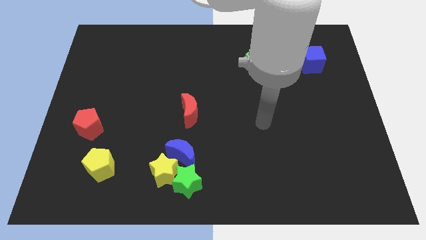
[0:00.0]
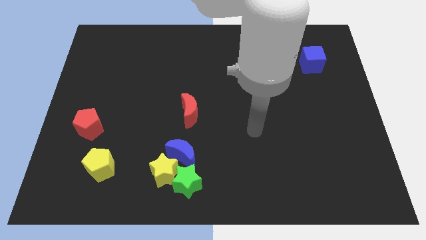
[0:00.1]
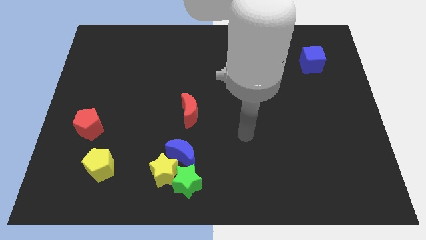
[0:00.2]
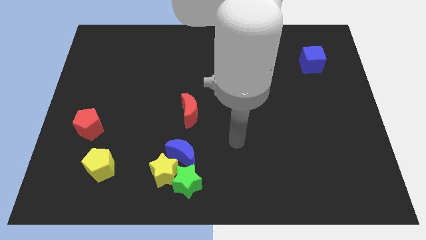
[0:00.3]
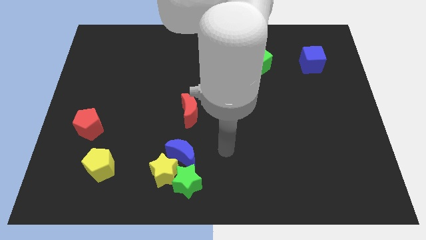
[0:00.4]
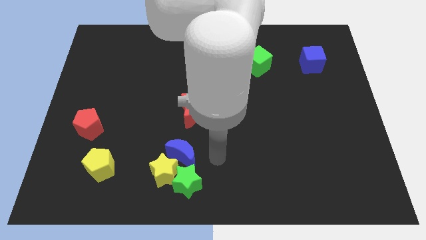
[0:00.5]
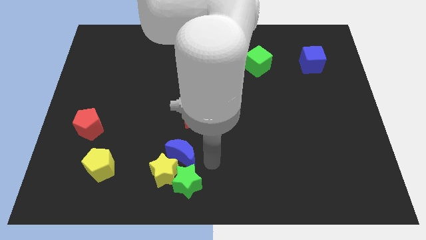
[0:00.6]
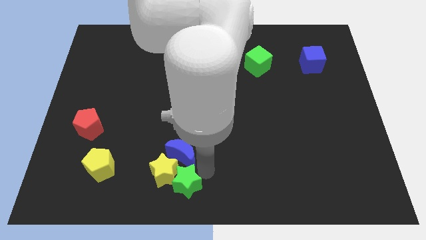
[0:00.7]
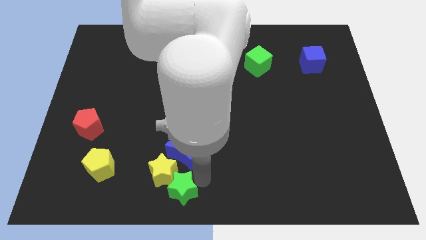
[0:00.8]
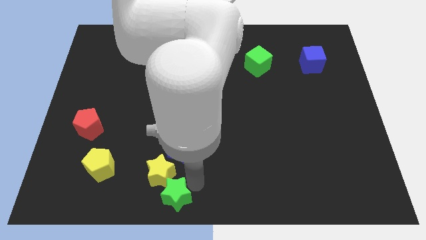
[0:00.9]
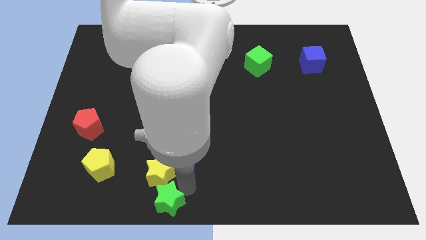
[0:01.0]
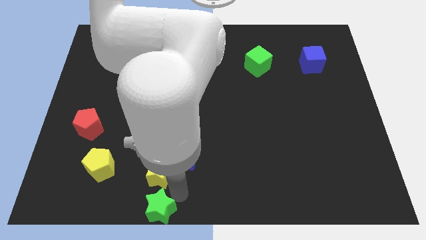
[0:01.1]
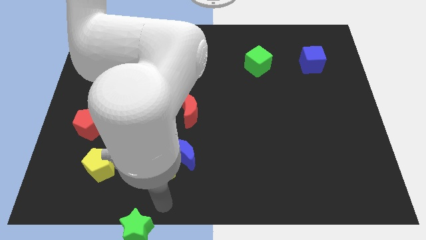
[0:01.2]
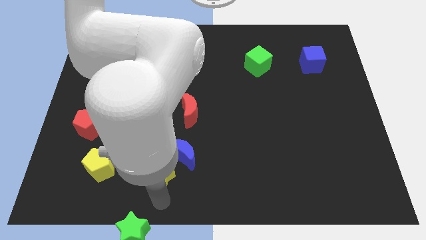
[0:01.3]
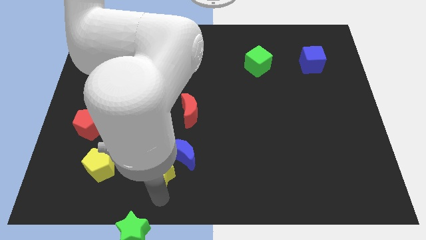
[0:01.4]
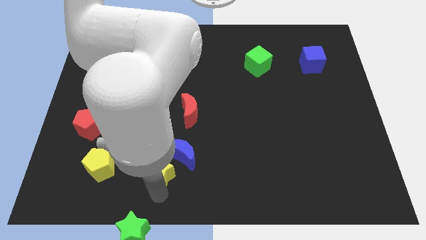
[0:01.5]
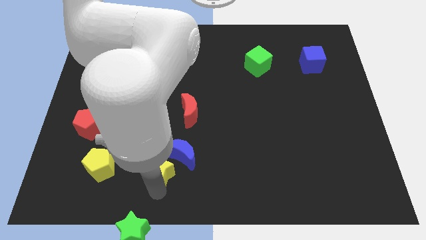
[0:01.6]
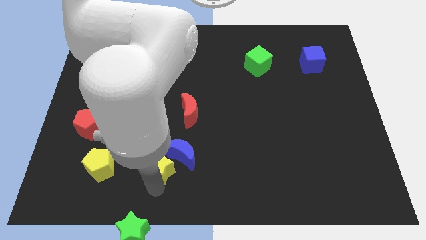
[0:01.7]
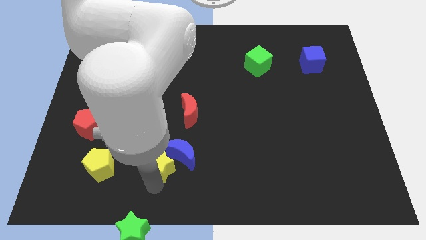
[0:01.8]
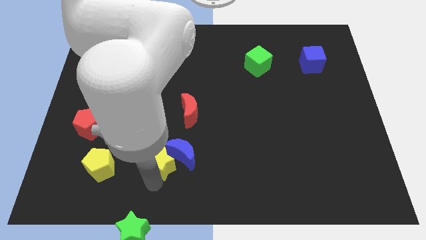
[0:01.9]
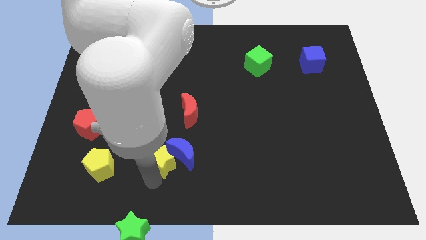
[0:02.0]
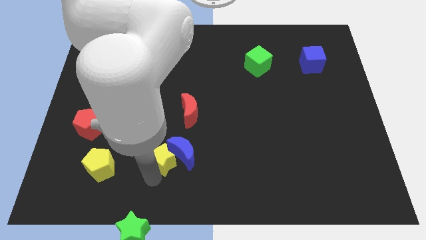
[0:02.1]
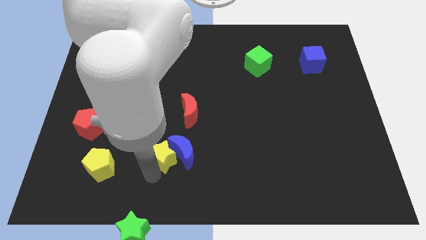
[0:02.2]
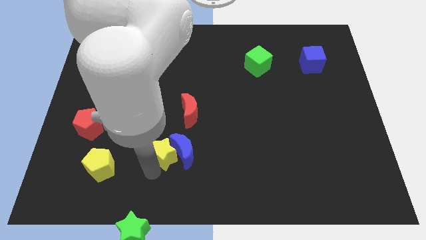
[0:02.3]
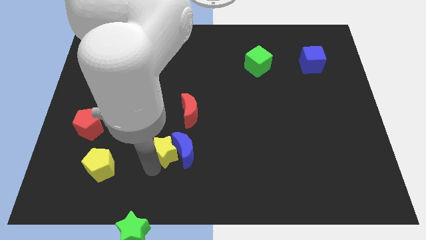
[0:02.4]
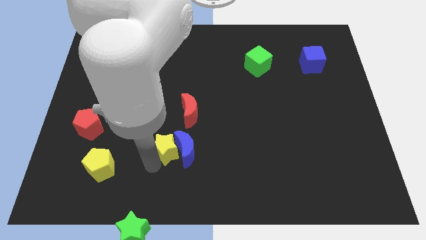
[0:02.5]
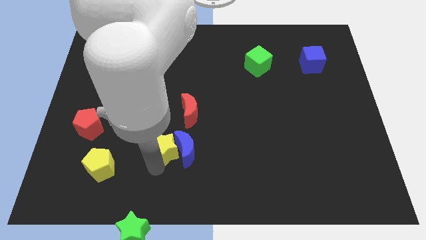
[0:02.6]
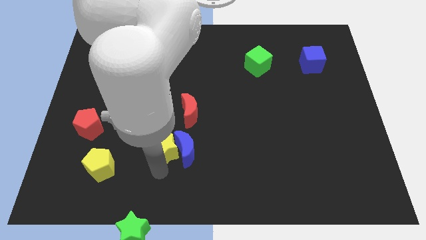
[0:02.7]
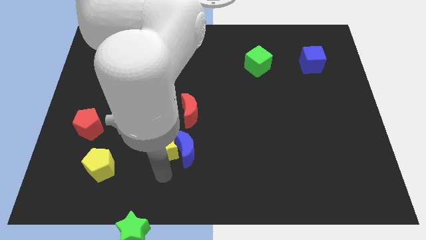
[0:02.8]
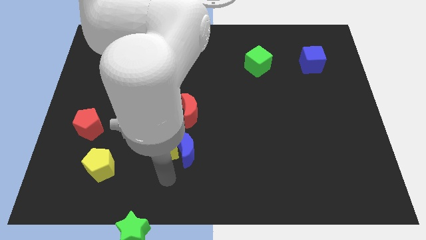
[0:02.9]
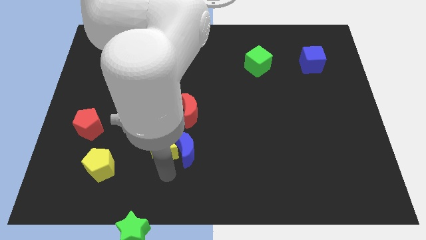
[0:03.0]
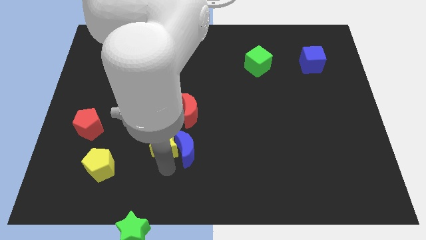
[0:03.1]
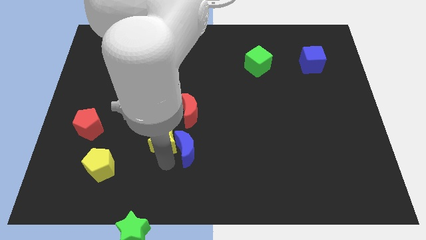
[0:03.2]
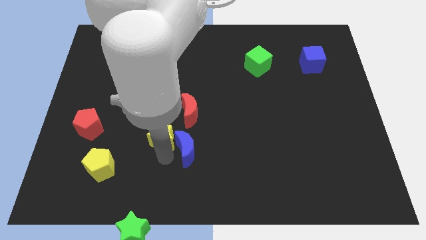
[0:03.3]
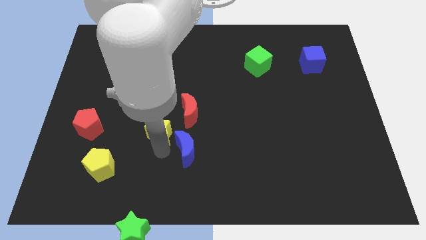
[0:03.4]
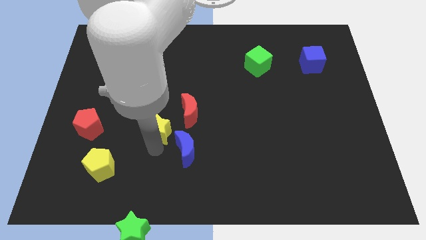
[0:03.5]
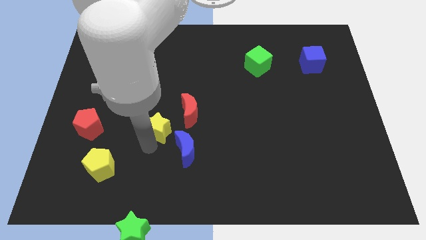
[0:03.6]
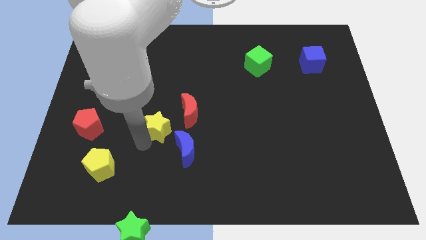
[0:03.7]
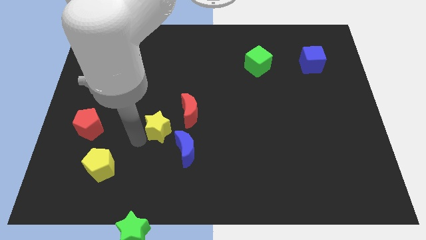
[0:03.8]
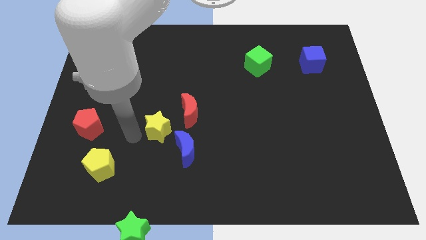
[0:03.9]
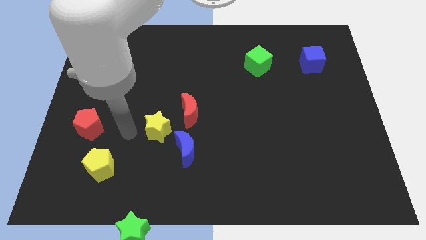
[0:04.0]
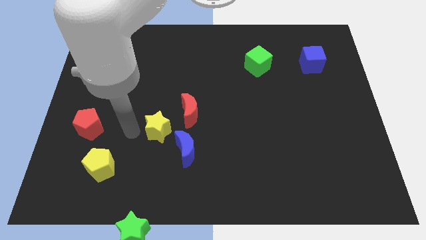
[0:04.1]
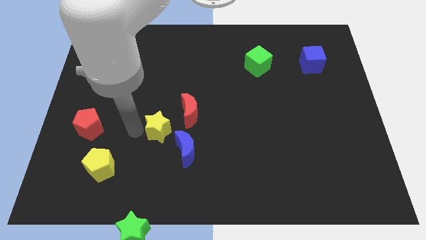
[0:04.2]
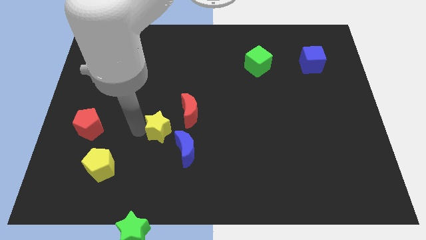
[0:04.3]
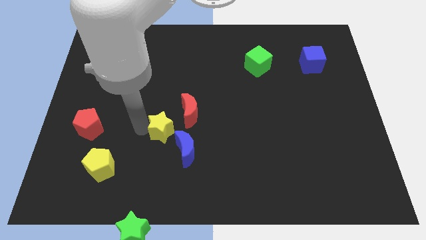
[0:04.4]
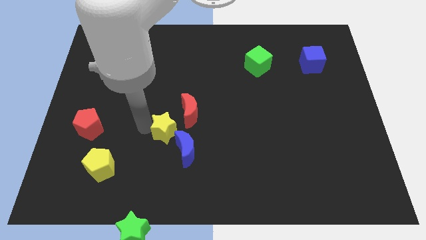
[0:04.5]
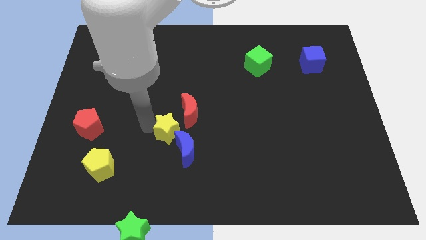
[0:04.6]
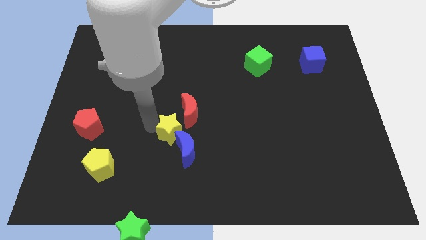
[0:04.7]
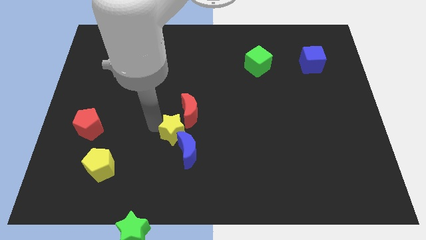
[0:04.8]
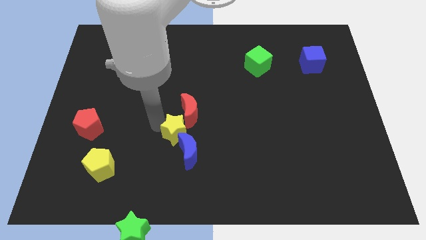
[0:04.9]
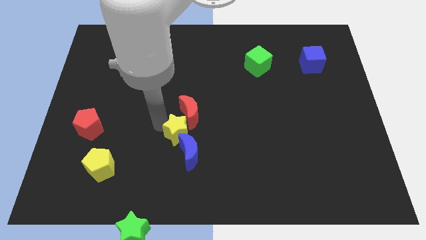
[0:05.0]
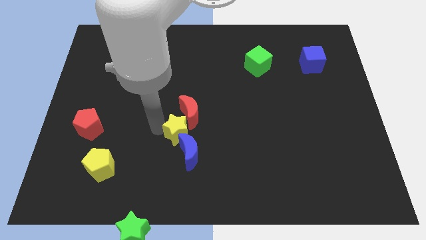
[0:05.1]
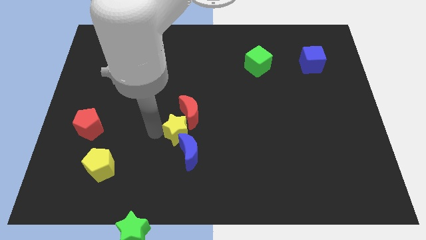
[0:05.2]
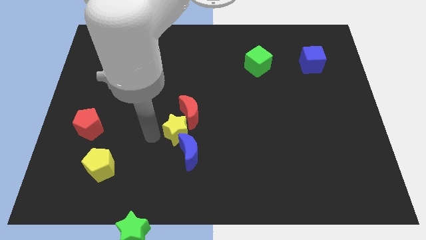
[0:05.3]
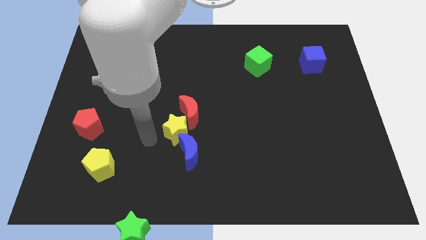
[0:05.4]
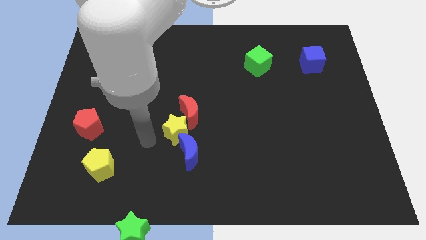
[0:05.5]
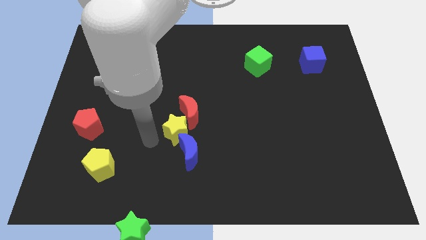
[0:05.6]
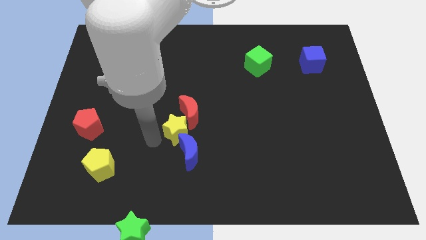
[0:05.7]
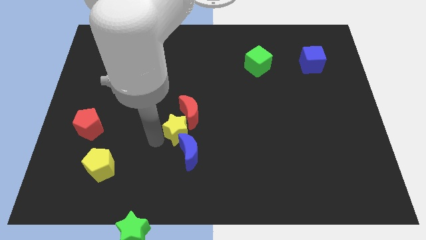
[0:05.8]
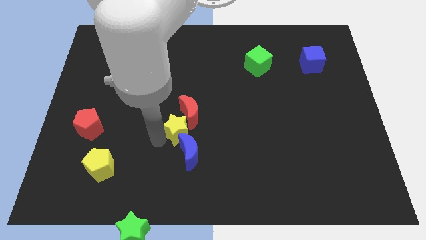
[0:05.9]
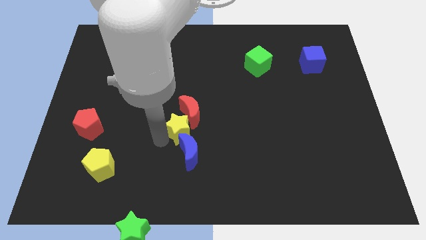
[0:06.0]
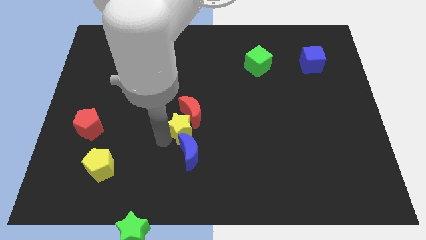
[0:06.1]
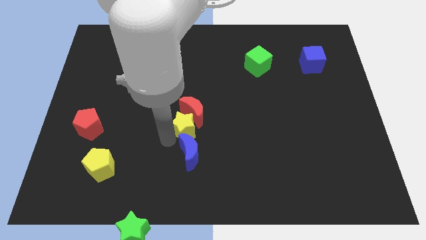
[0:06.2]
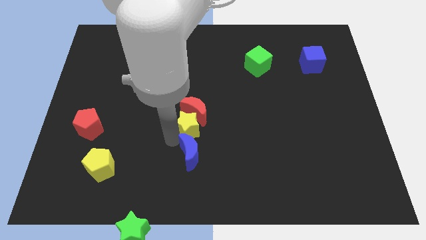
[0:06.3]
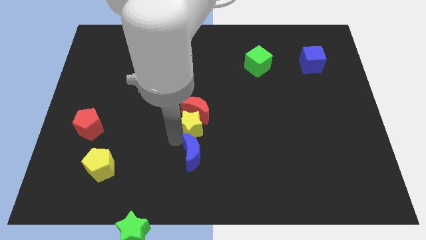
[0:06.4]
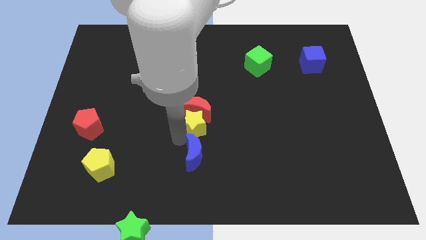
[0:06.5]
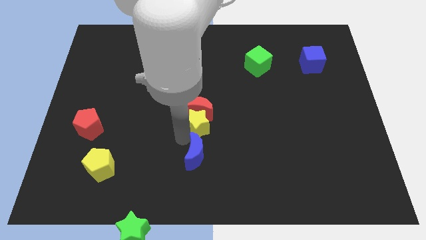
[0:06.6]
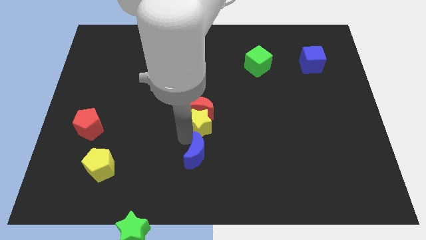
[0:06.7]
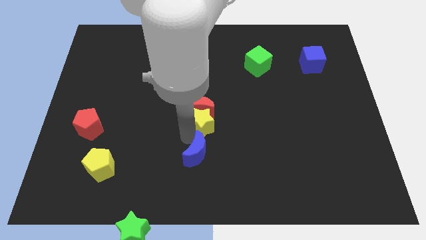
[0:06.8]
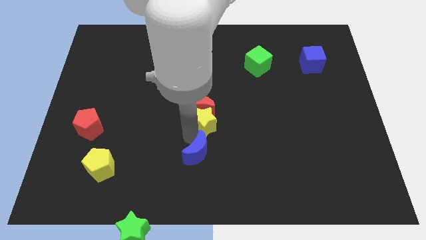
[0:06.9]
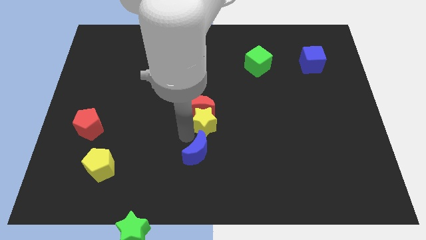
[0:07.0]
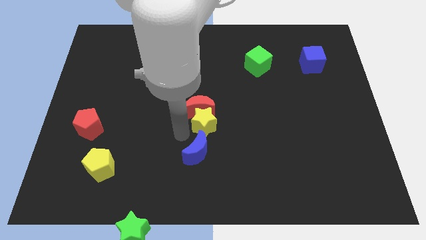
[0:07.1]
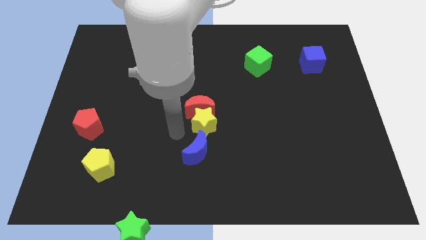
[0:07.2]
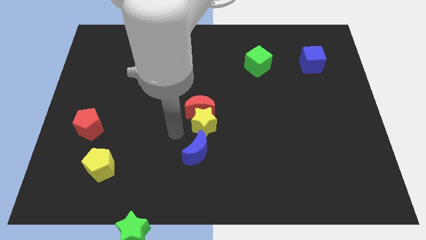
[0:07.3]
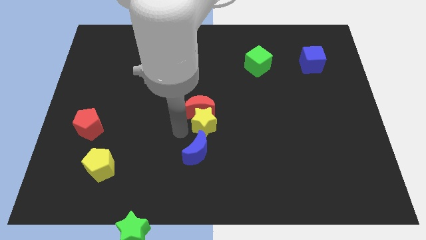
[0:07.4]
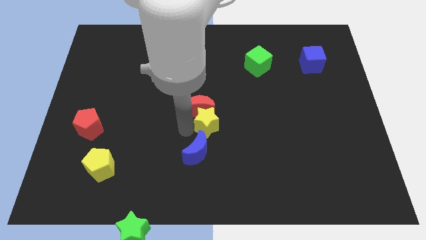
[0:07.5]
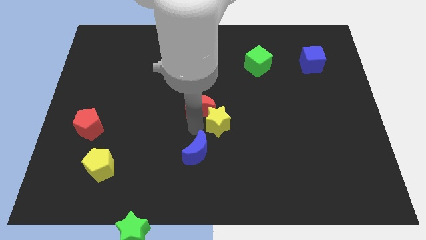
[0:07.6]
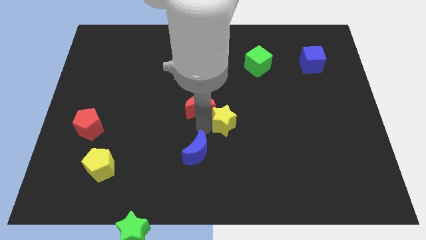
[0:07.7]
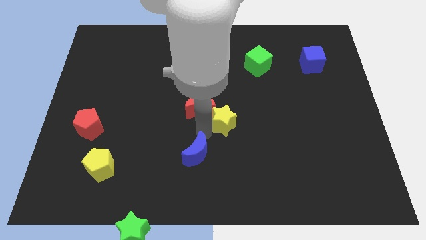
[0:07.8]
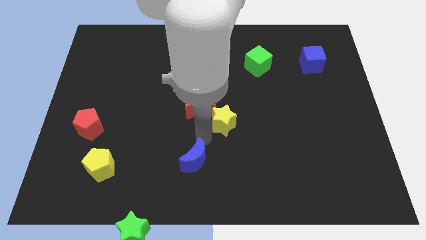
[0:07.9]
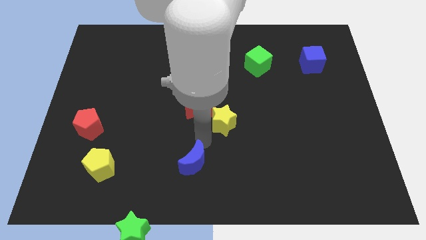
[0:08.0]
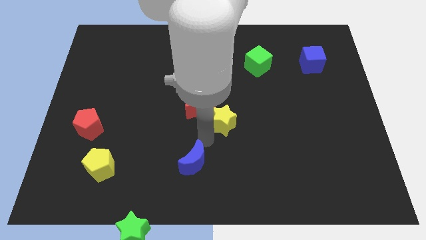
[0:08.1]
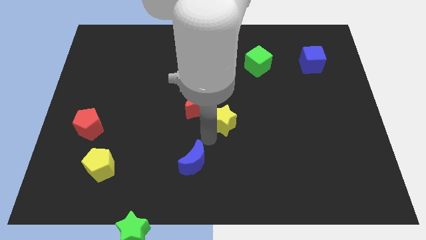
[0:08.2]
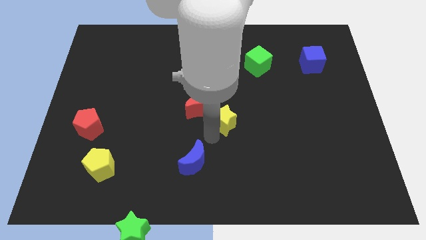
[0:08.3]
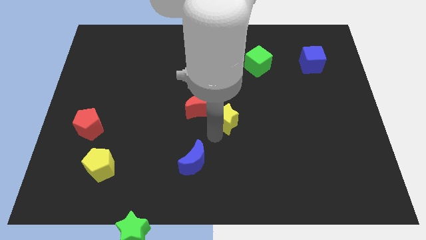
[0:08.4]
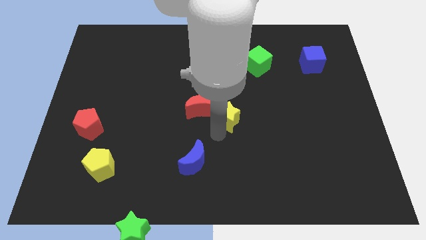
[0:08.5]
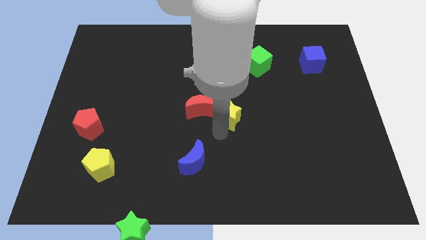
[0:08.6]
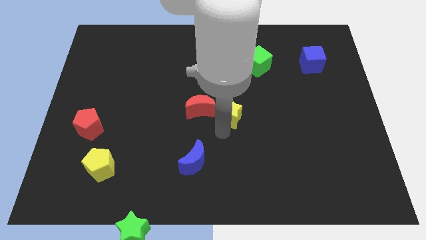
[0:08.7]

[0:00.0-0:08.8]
slide the yellow star up and to the right
